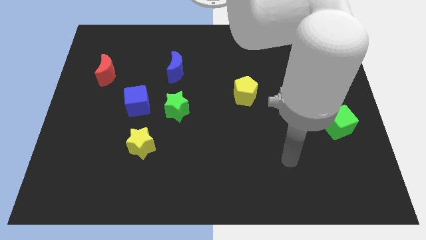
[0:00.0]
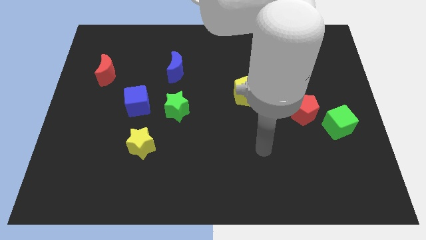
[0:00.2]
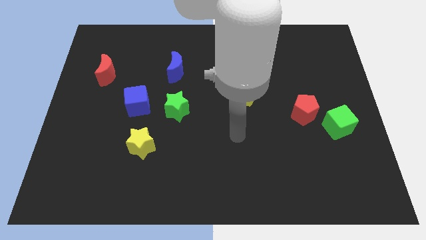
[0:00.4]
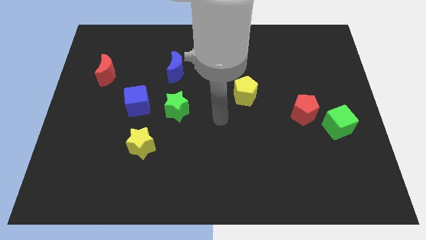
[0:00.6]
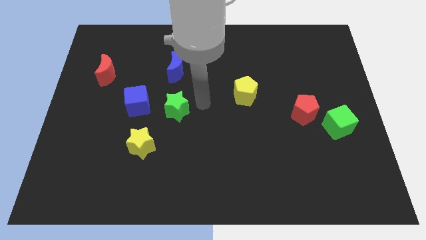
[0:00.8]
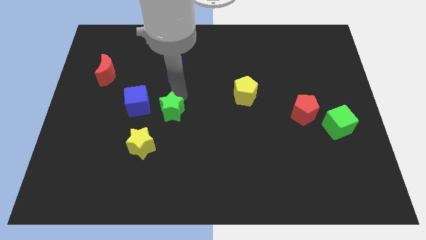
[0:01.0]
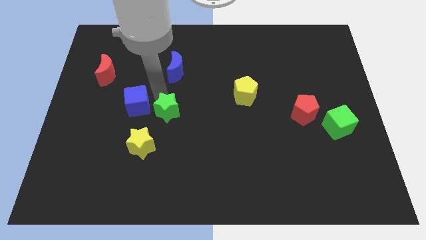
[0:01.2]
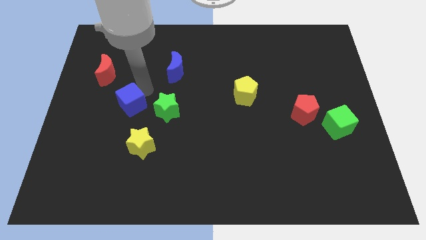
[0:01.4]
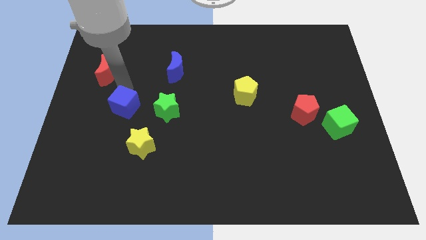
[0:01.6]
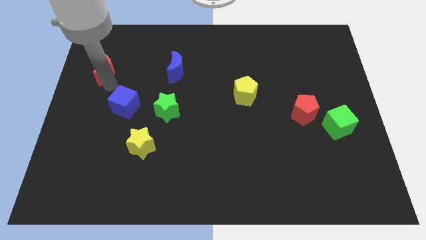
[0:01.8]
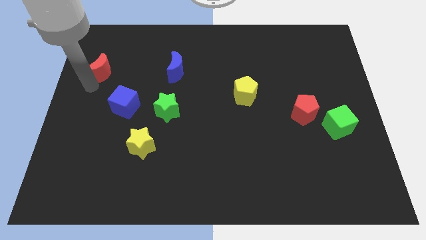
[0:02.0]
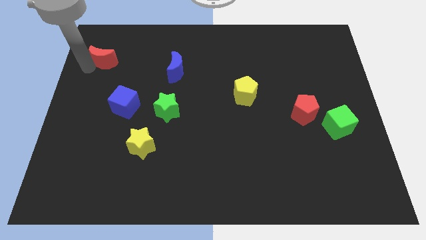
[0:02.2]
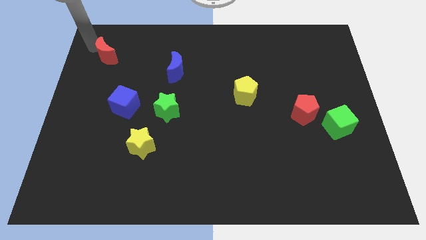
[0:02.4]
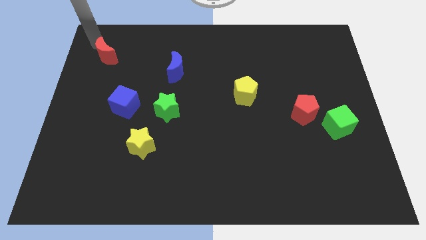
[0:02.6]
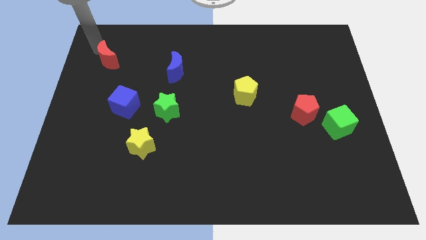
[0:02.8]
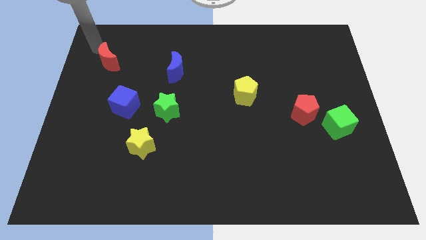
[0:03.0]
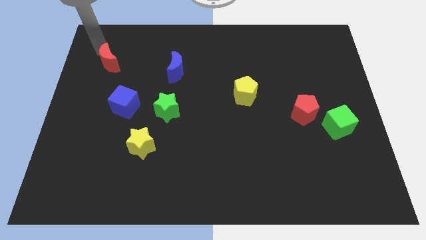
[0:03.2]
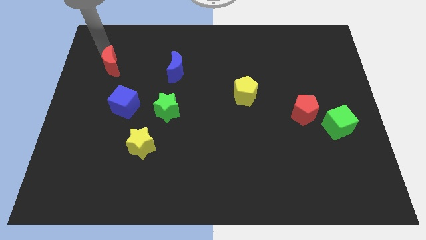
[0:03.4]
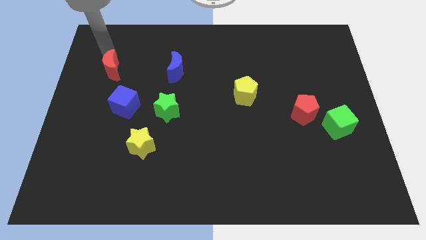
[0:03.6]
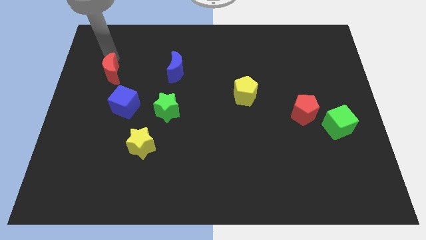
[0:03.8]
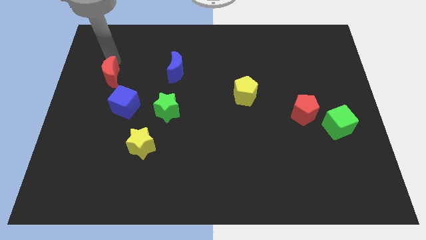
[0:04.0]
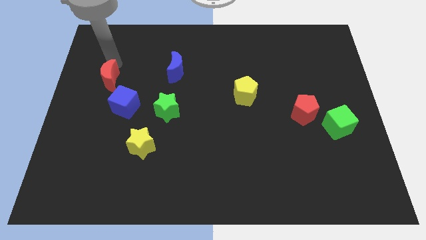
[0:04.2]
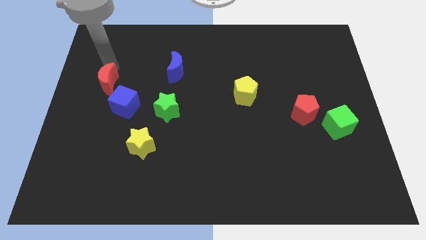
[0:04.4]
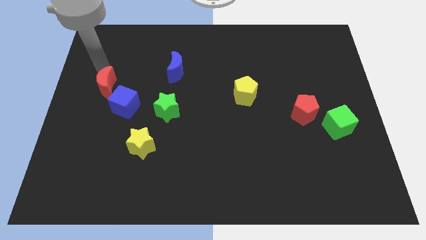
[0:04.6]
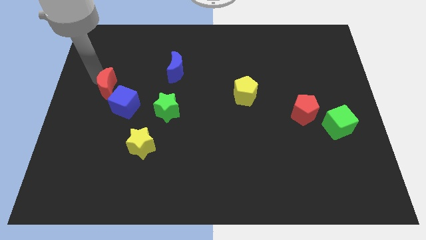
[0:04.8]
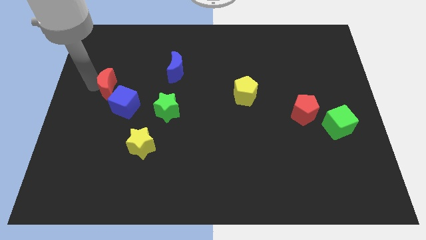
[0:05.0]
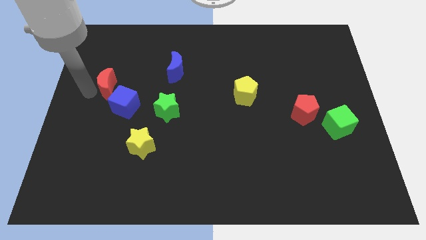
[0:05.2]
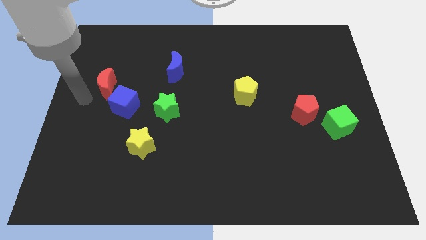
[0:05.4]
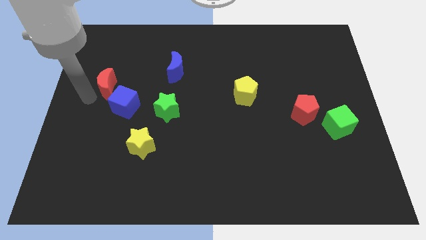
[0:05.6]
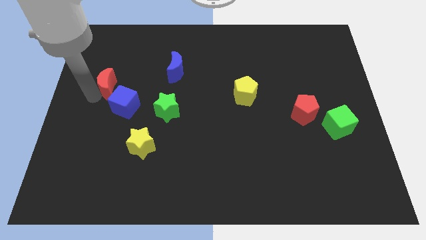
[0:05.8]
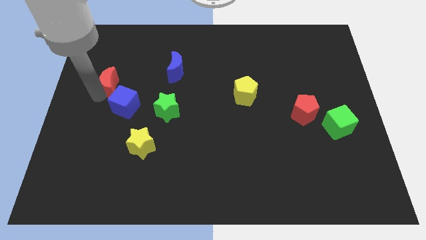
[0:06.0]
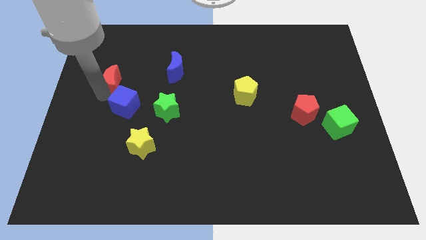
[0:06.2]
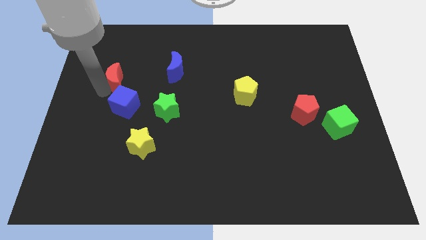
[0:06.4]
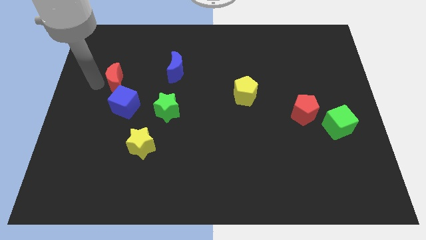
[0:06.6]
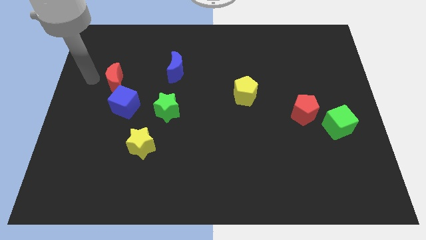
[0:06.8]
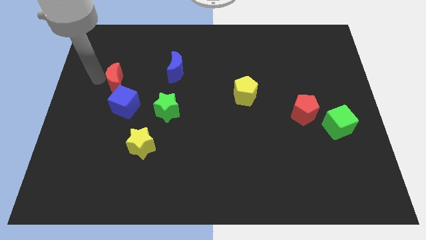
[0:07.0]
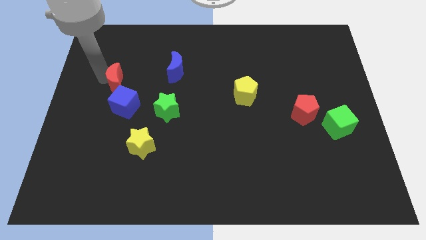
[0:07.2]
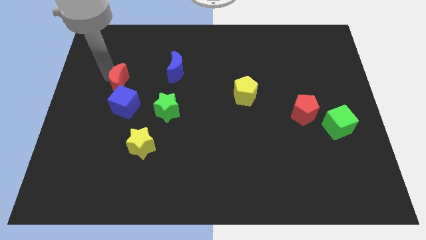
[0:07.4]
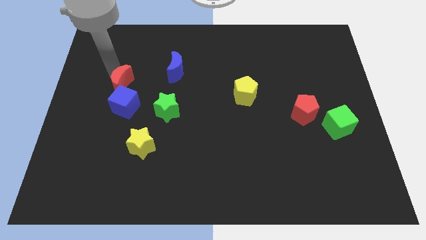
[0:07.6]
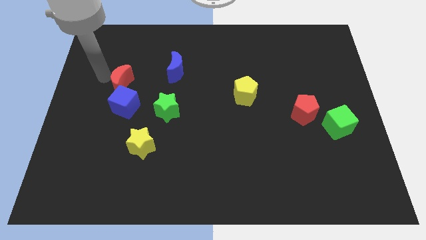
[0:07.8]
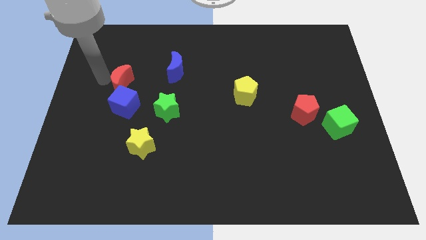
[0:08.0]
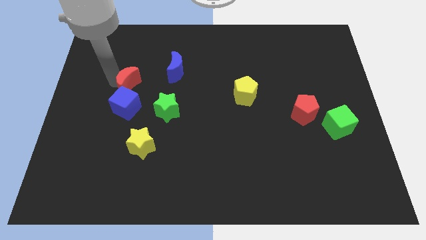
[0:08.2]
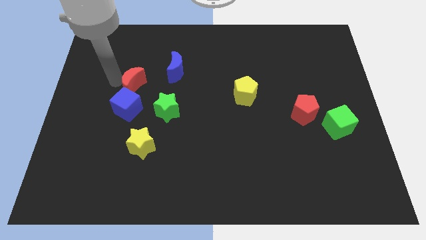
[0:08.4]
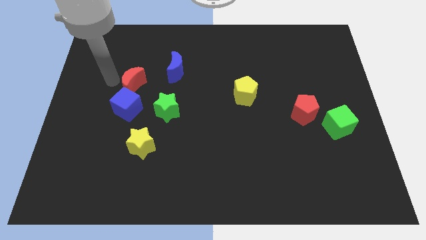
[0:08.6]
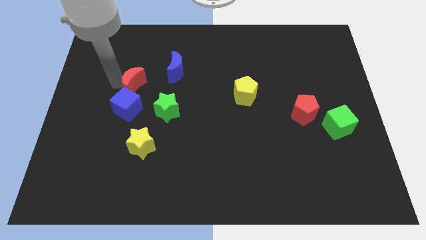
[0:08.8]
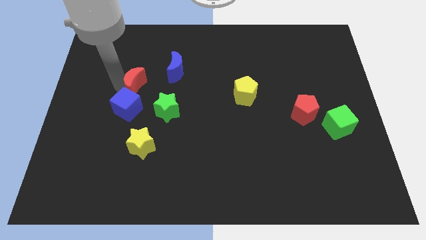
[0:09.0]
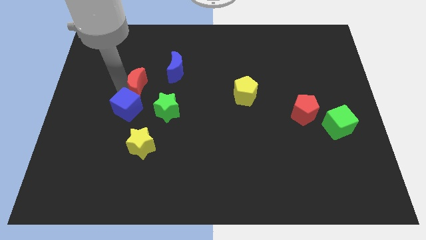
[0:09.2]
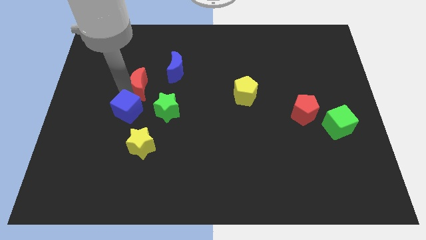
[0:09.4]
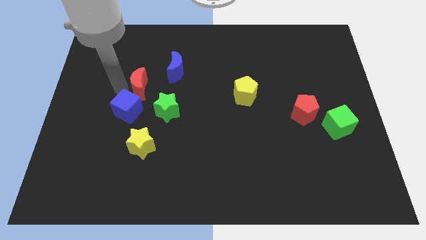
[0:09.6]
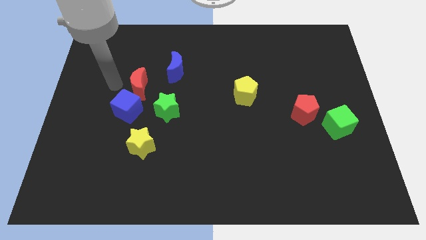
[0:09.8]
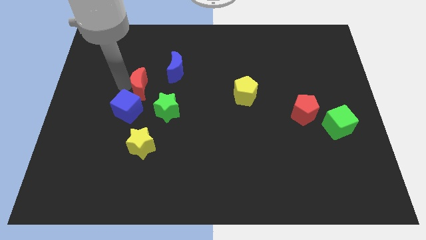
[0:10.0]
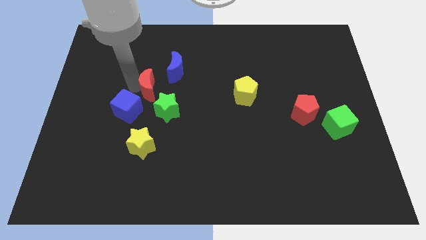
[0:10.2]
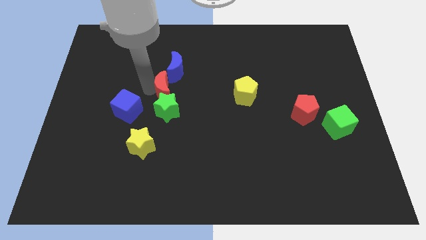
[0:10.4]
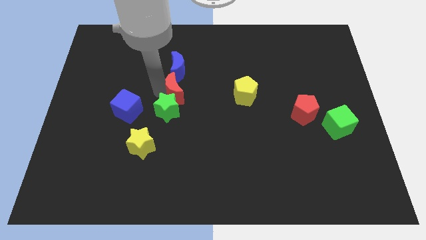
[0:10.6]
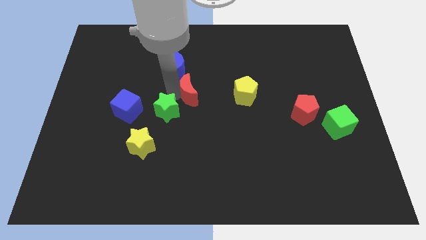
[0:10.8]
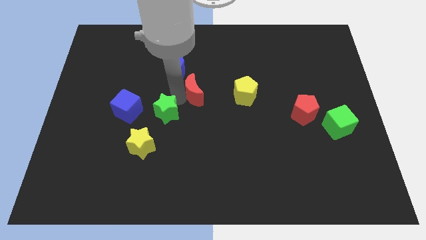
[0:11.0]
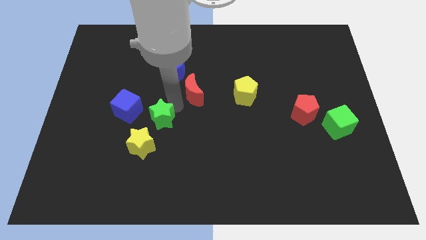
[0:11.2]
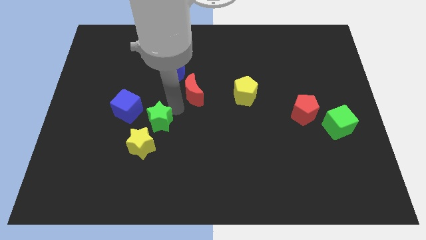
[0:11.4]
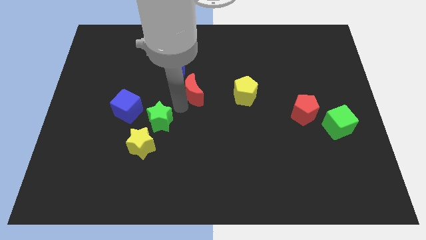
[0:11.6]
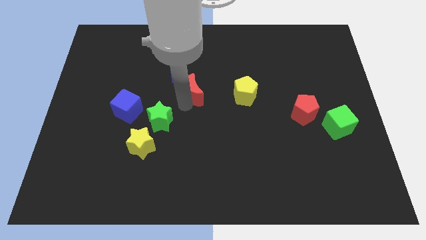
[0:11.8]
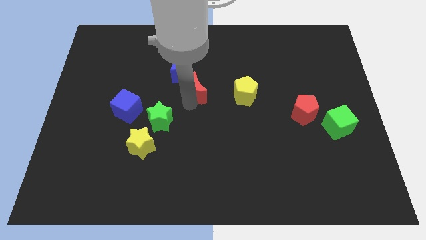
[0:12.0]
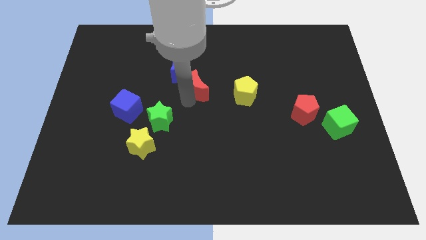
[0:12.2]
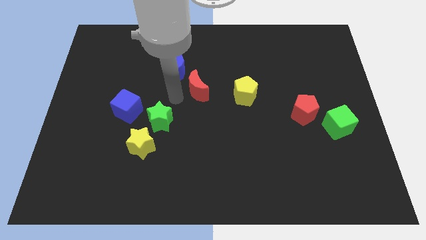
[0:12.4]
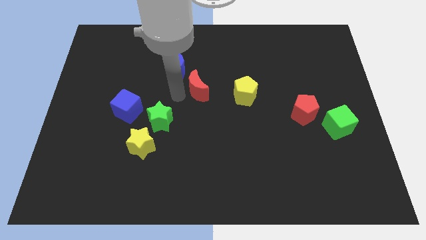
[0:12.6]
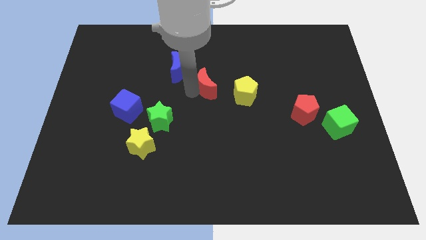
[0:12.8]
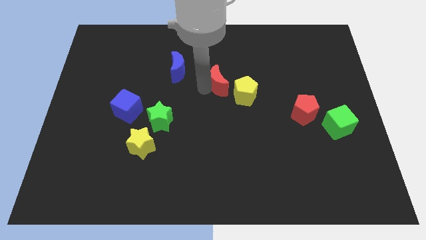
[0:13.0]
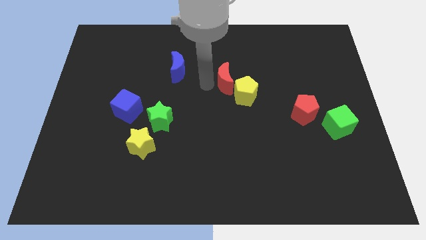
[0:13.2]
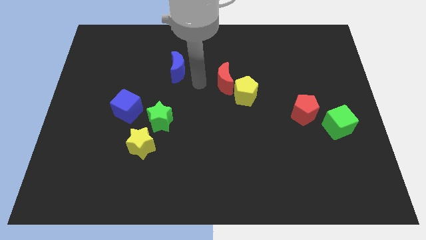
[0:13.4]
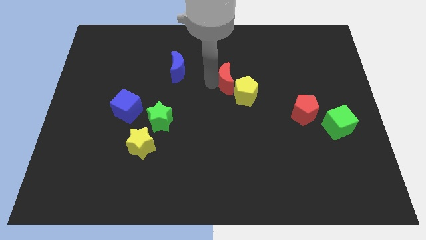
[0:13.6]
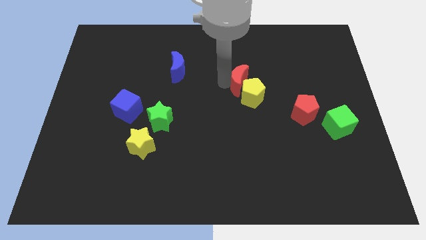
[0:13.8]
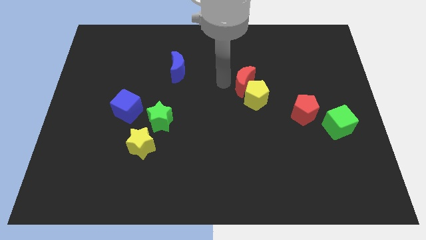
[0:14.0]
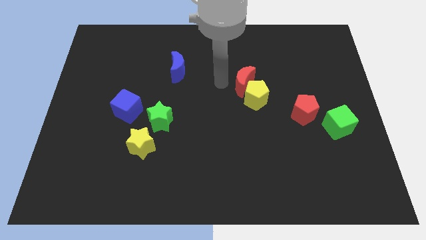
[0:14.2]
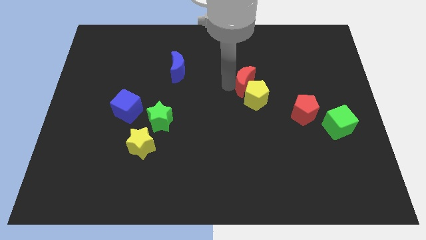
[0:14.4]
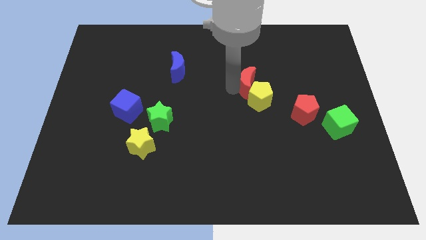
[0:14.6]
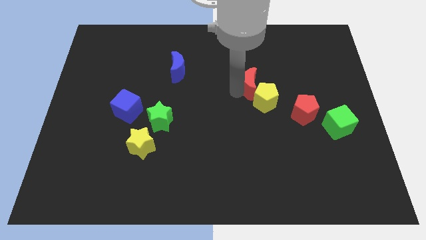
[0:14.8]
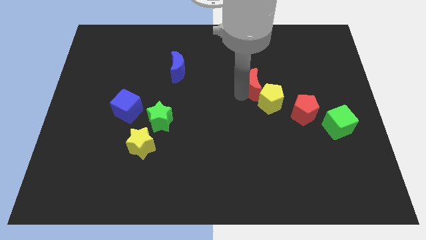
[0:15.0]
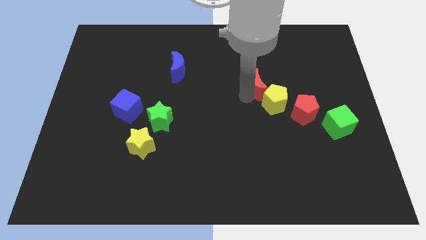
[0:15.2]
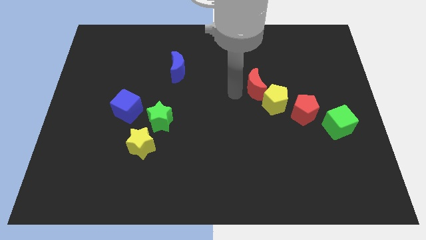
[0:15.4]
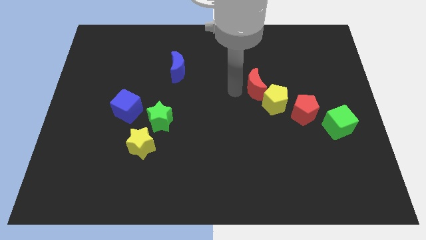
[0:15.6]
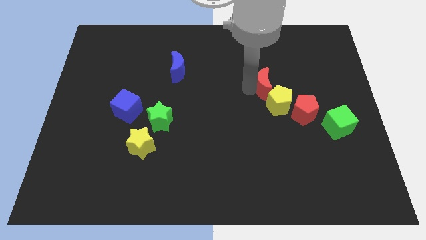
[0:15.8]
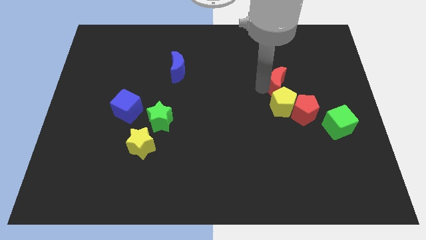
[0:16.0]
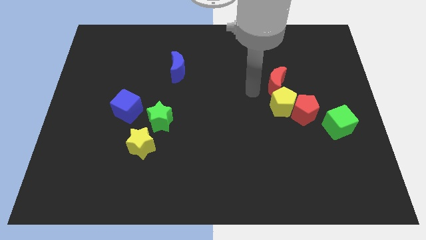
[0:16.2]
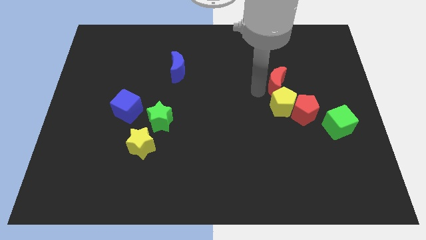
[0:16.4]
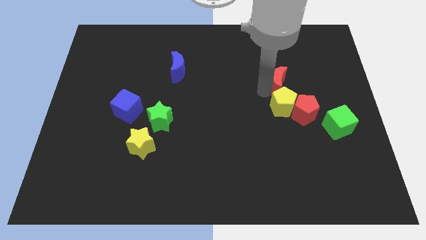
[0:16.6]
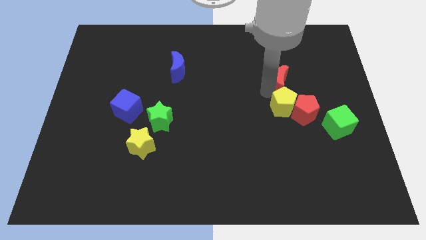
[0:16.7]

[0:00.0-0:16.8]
push the red moon to the top side of the red pentagon
